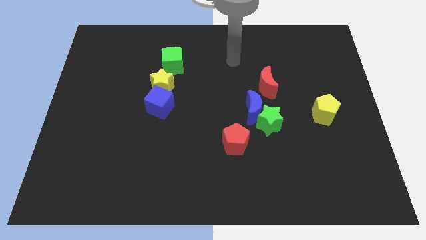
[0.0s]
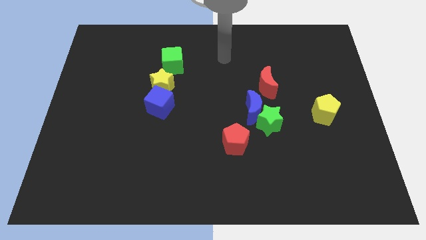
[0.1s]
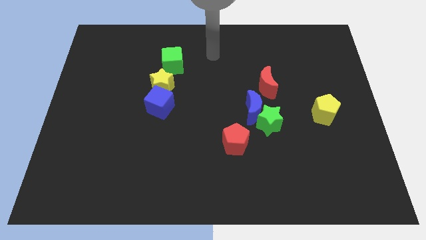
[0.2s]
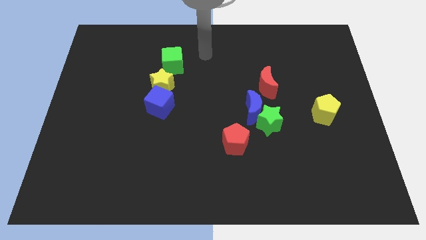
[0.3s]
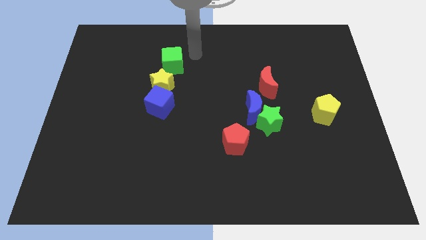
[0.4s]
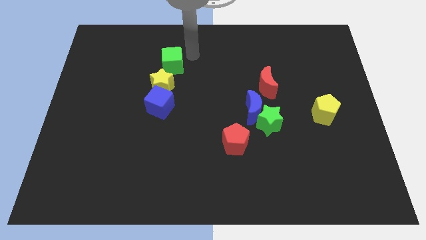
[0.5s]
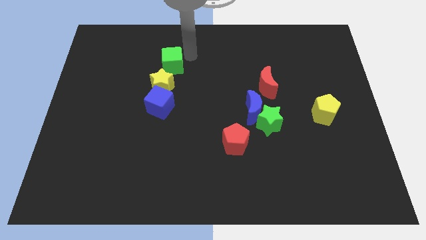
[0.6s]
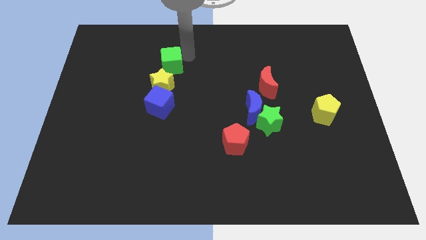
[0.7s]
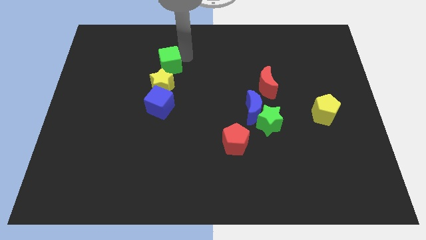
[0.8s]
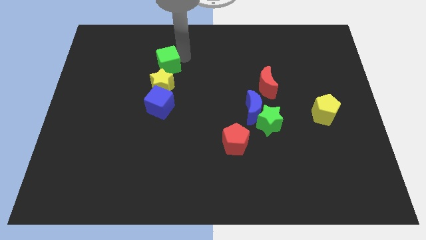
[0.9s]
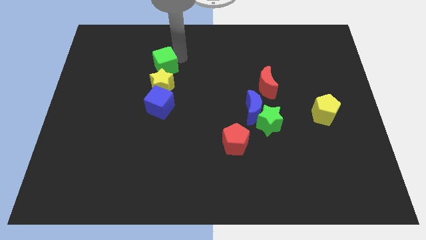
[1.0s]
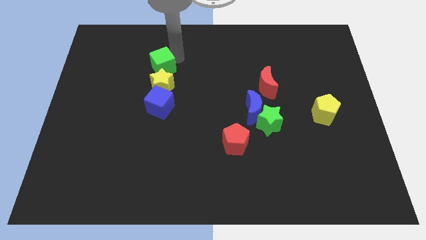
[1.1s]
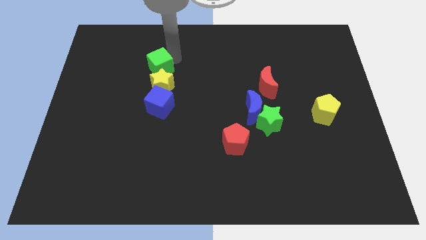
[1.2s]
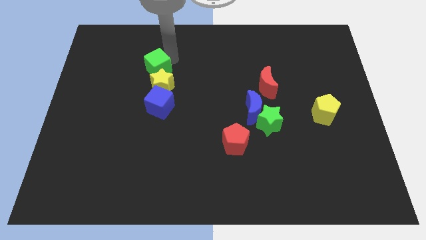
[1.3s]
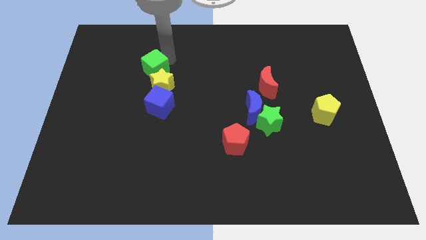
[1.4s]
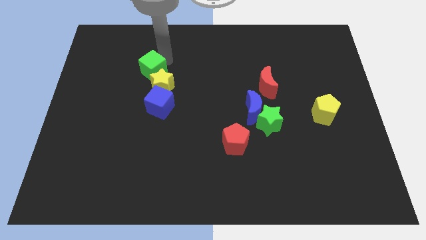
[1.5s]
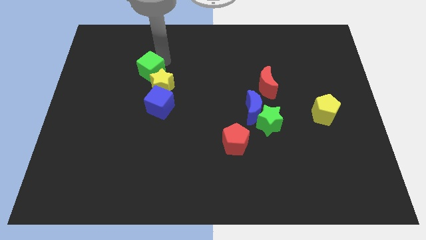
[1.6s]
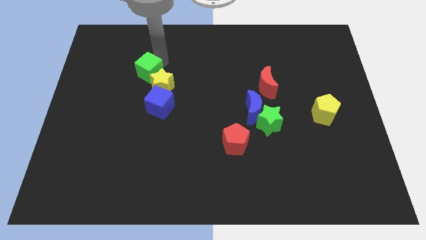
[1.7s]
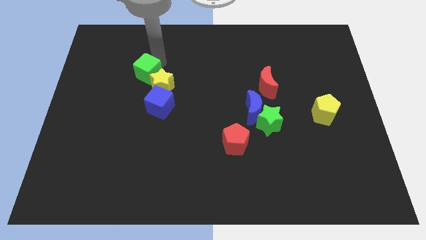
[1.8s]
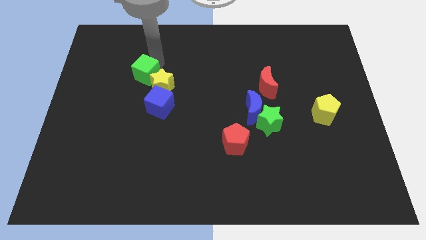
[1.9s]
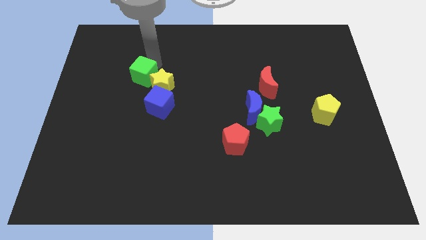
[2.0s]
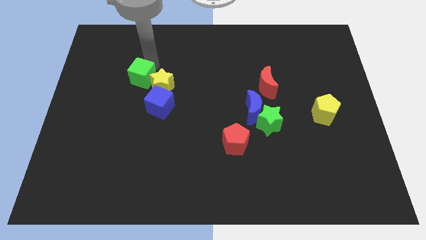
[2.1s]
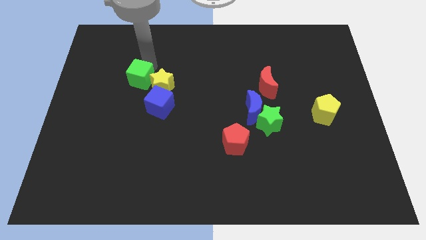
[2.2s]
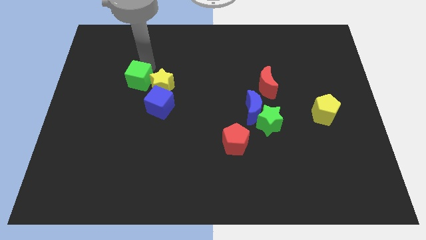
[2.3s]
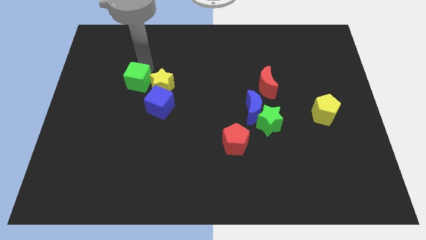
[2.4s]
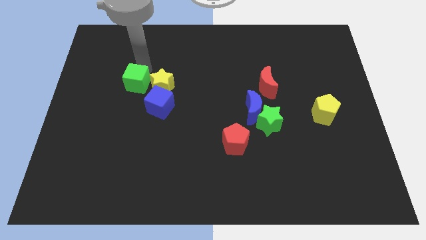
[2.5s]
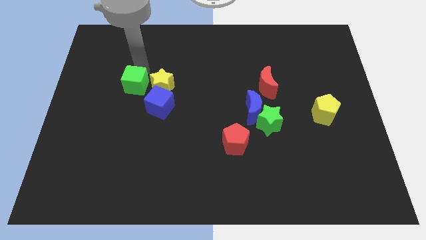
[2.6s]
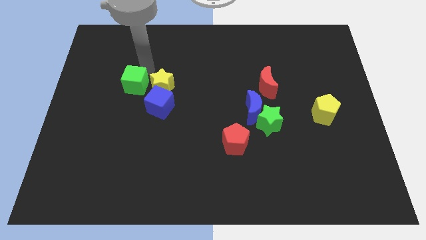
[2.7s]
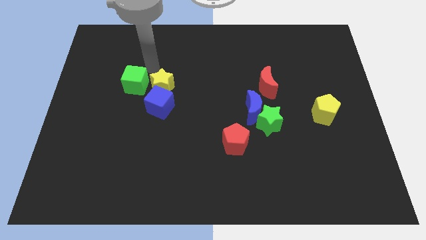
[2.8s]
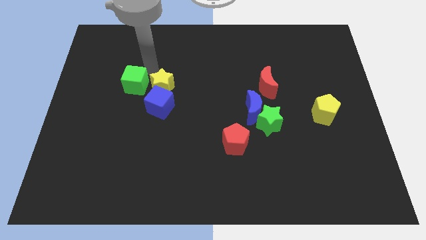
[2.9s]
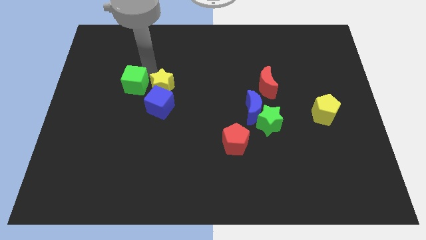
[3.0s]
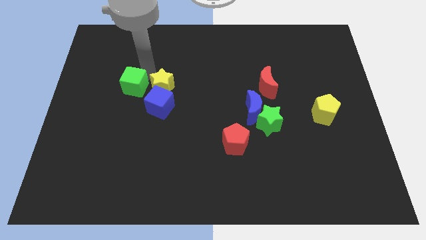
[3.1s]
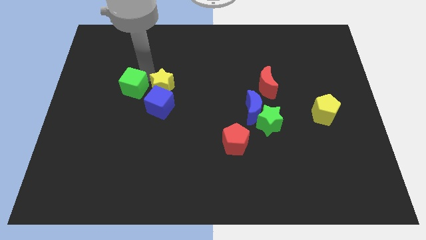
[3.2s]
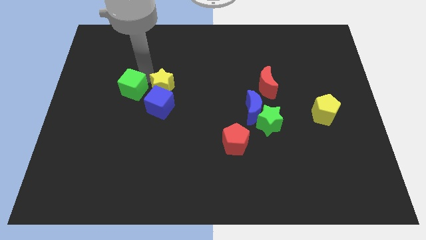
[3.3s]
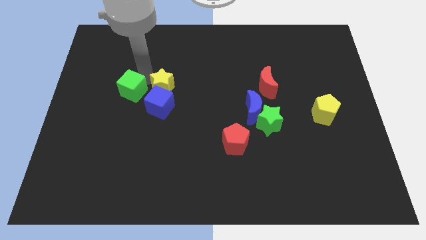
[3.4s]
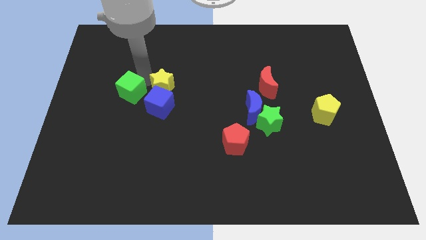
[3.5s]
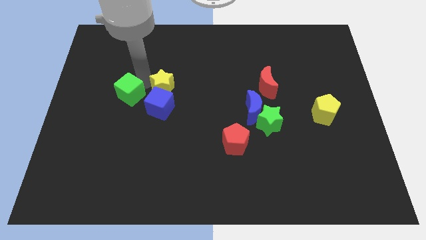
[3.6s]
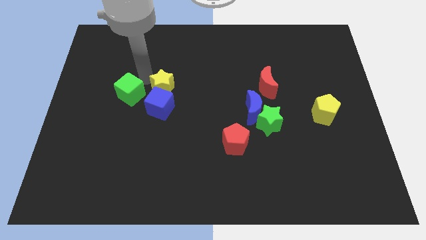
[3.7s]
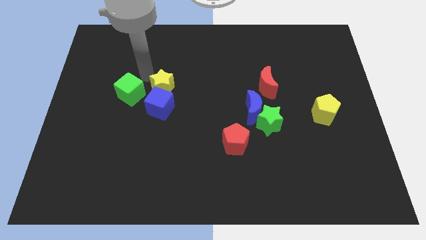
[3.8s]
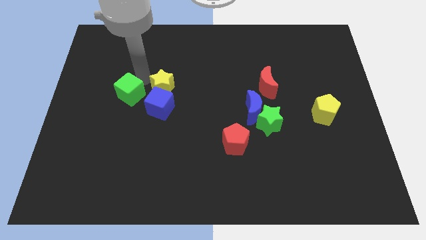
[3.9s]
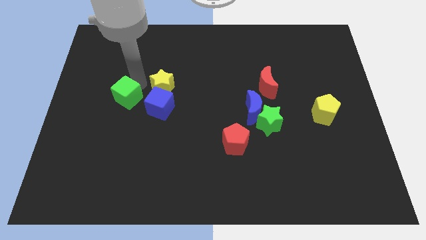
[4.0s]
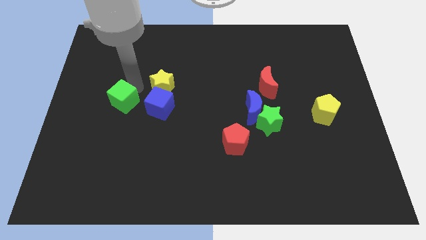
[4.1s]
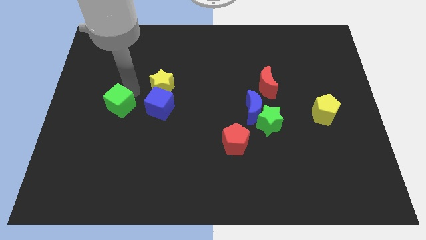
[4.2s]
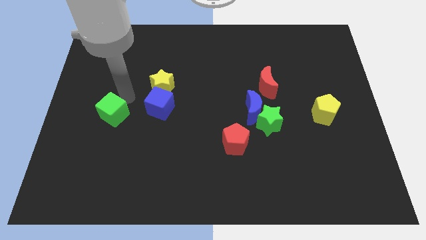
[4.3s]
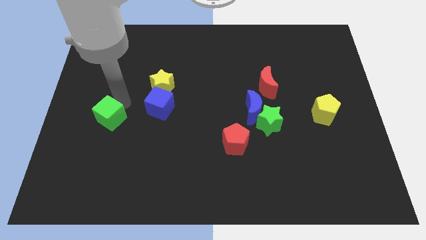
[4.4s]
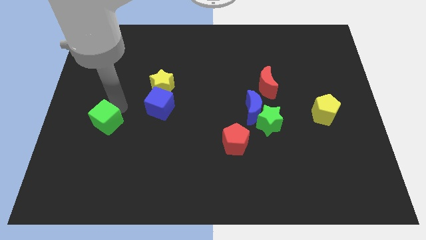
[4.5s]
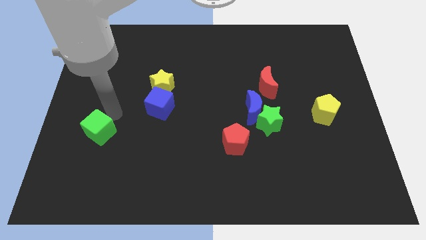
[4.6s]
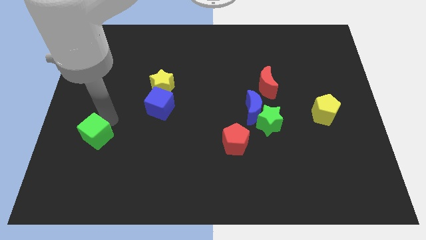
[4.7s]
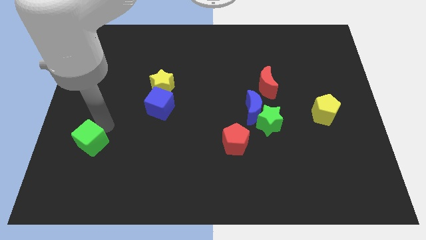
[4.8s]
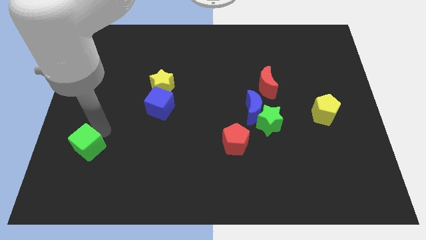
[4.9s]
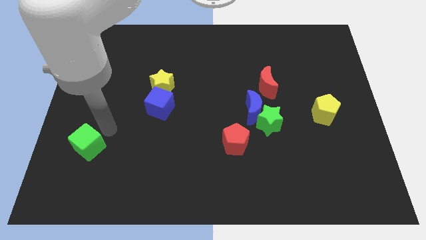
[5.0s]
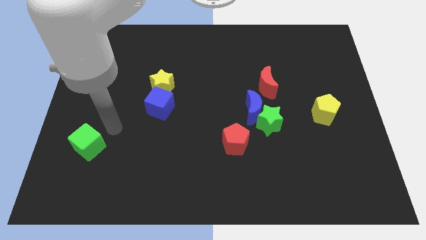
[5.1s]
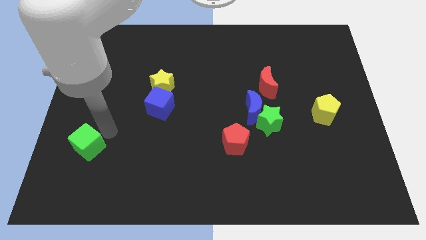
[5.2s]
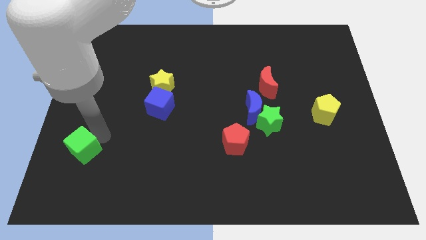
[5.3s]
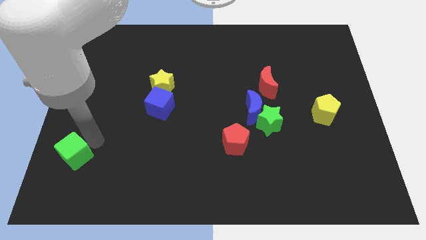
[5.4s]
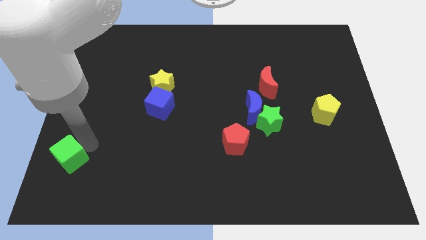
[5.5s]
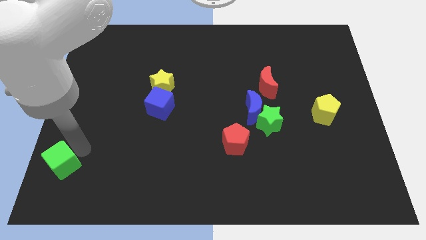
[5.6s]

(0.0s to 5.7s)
push the green cube to the lower left corner

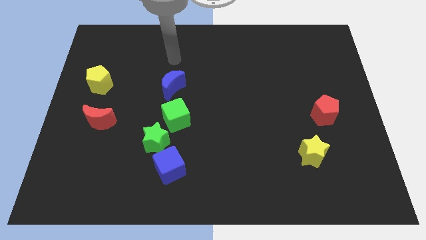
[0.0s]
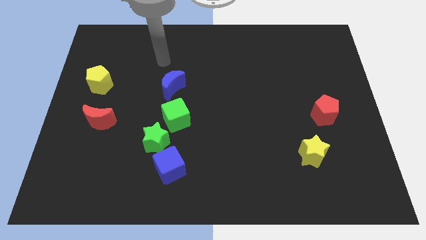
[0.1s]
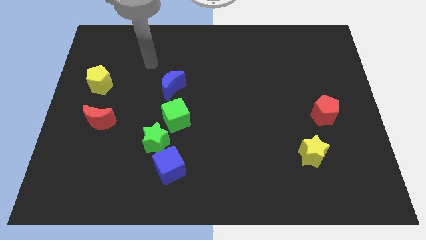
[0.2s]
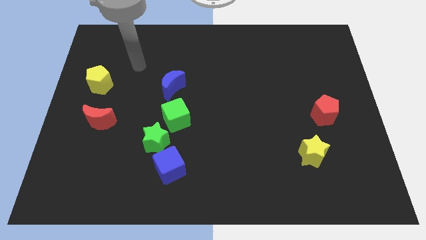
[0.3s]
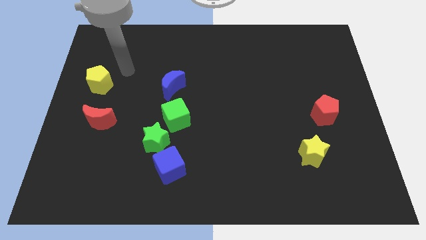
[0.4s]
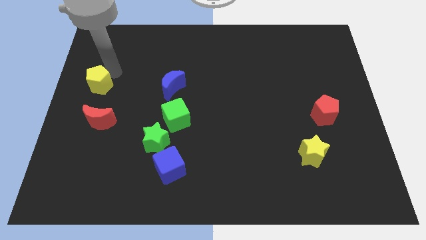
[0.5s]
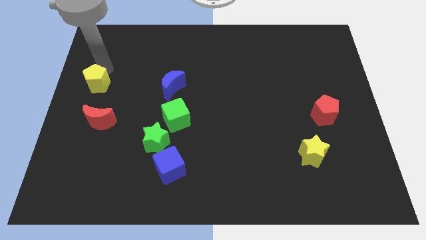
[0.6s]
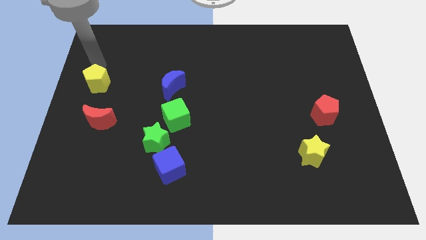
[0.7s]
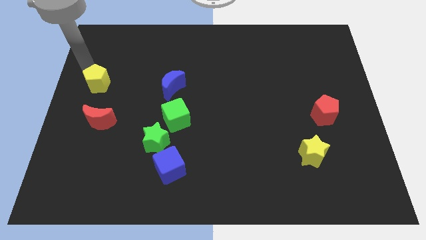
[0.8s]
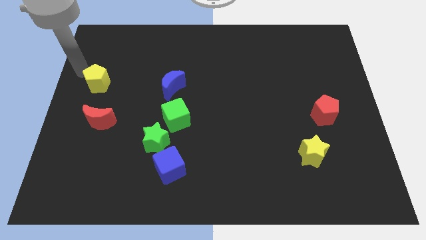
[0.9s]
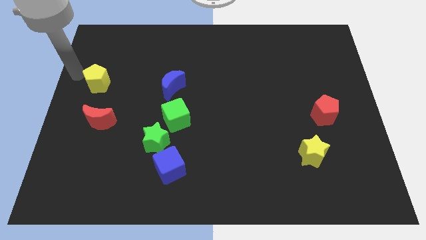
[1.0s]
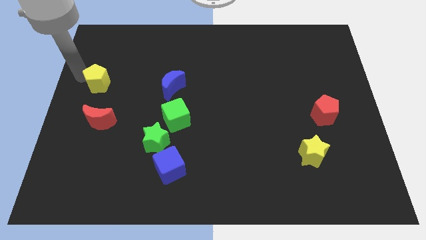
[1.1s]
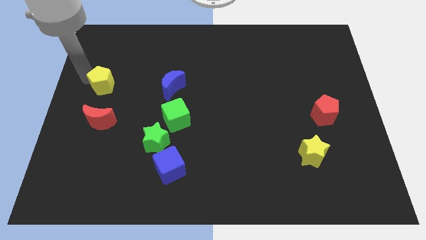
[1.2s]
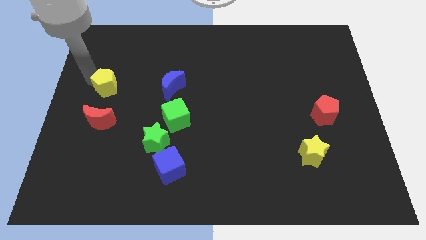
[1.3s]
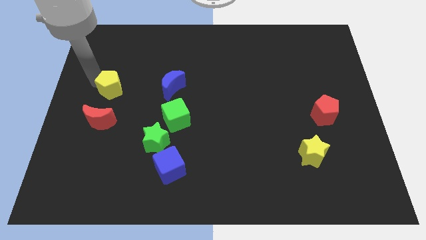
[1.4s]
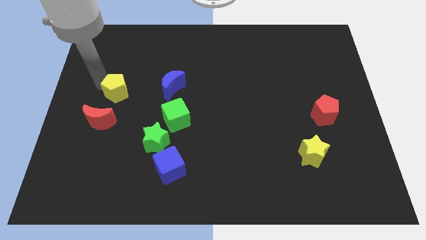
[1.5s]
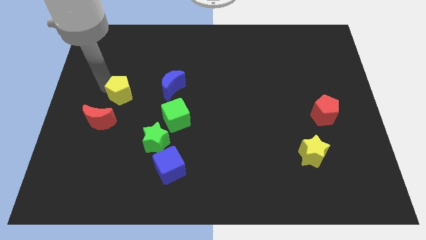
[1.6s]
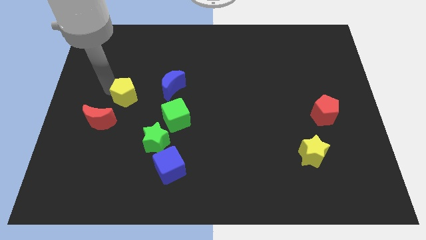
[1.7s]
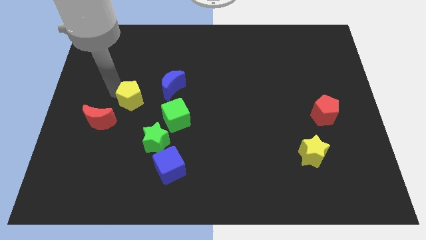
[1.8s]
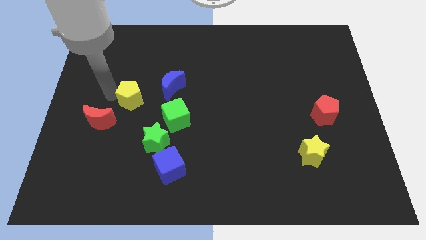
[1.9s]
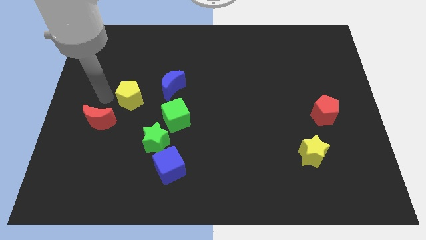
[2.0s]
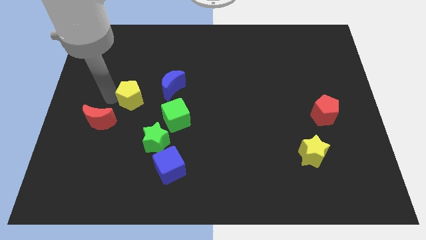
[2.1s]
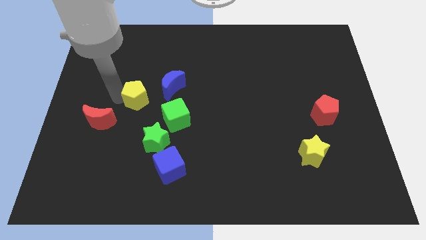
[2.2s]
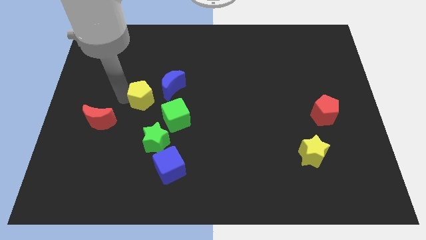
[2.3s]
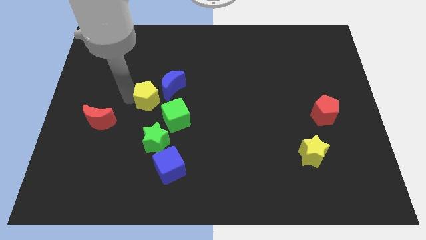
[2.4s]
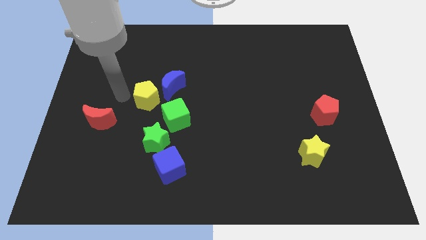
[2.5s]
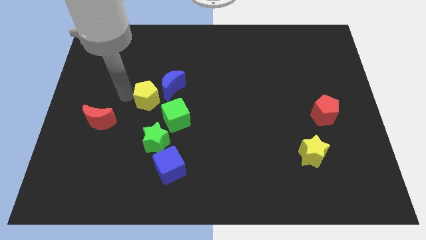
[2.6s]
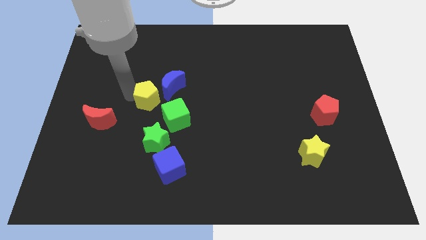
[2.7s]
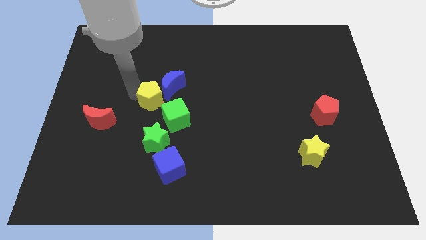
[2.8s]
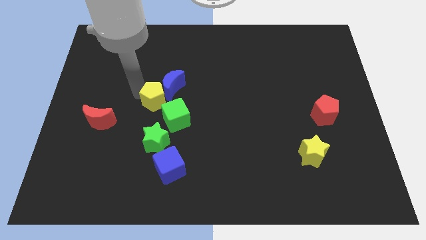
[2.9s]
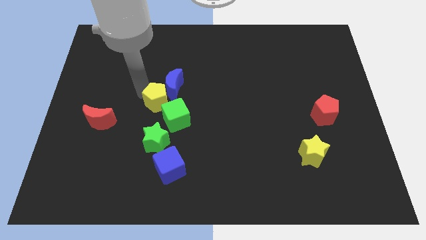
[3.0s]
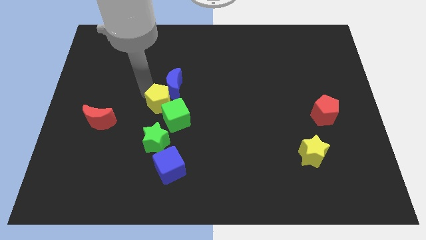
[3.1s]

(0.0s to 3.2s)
put the yellow pentagon to the center
